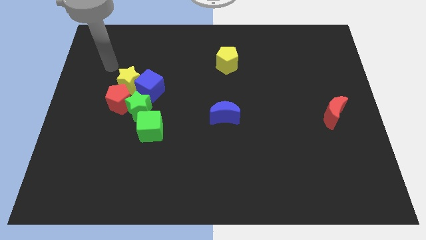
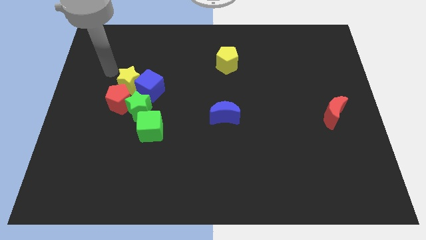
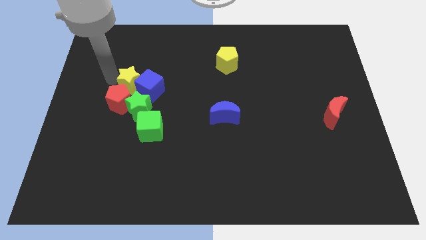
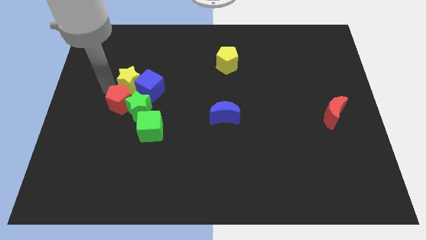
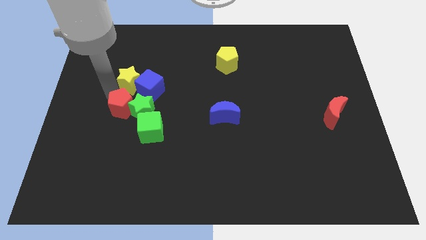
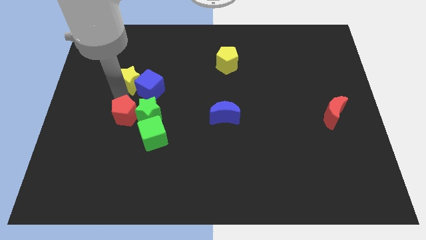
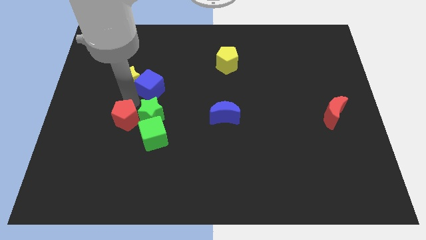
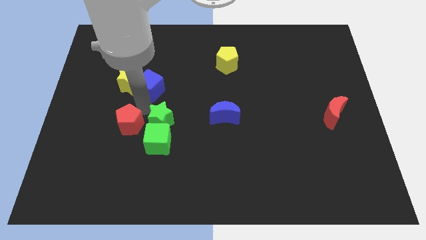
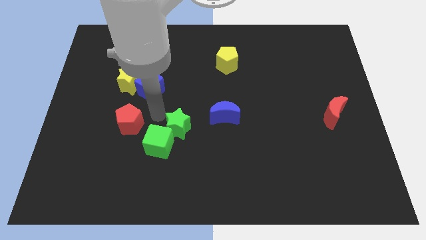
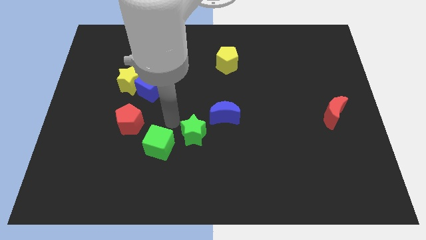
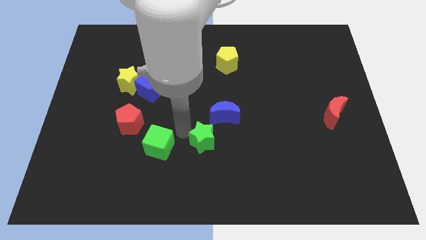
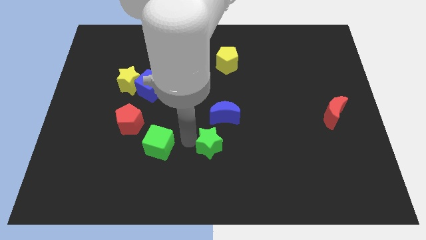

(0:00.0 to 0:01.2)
separate the green cube from the green star

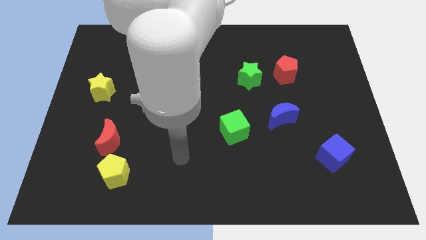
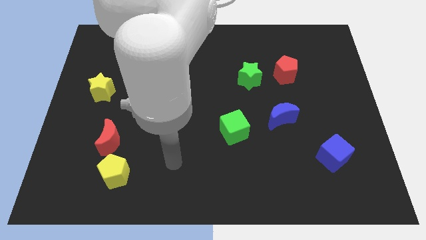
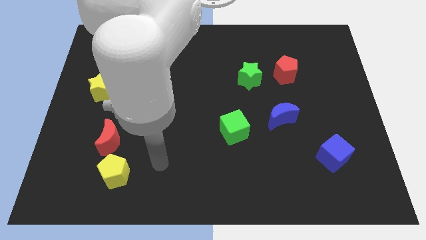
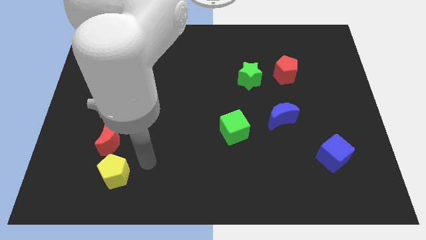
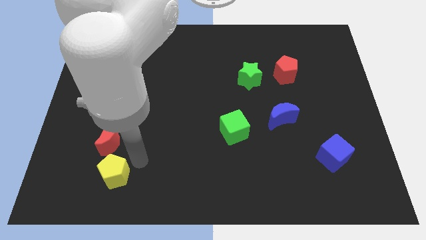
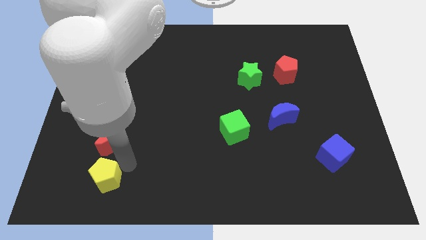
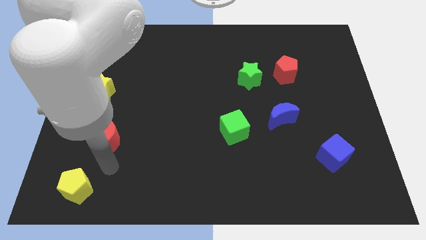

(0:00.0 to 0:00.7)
pull the red moon apart from the yellow pentagon

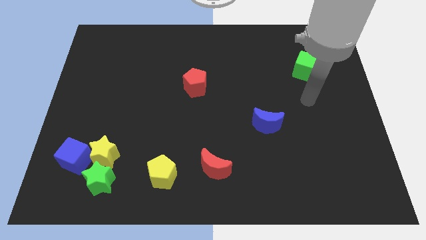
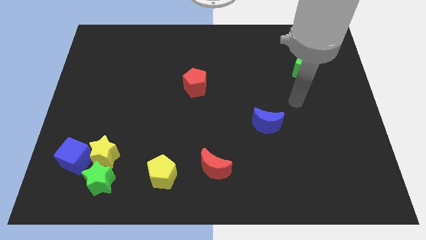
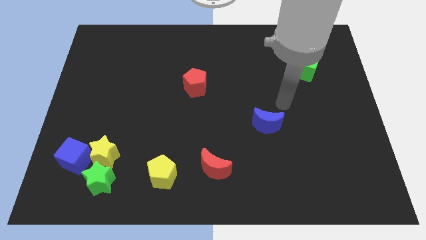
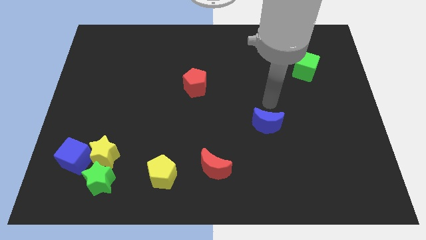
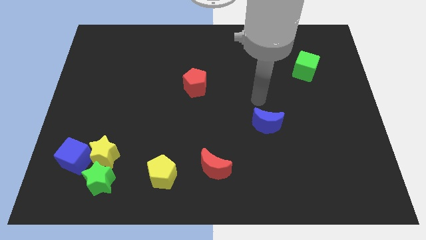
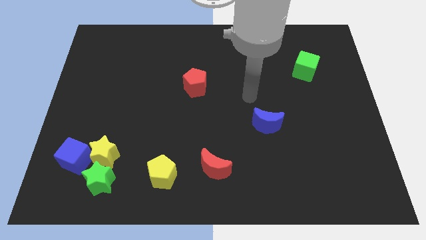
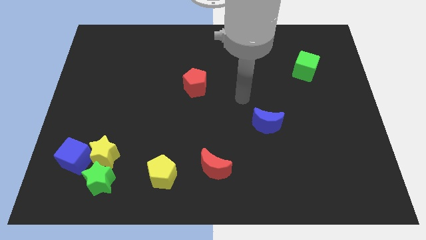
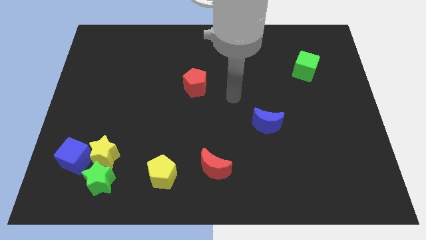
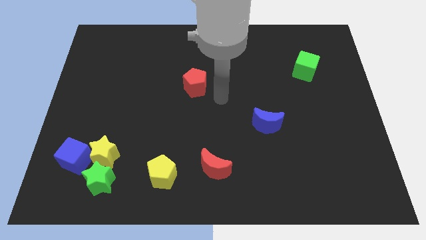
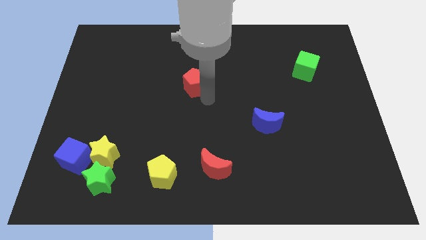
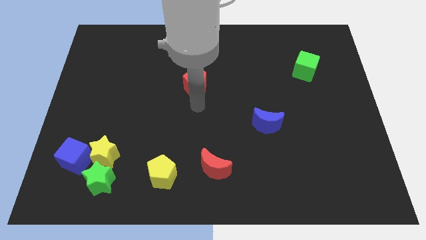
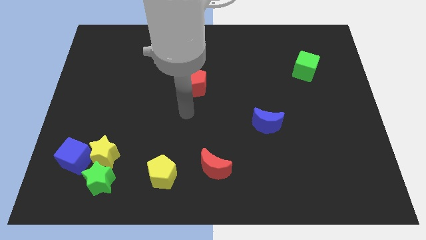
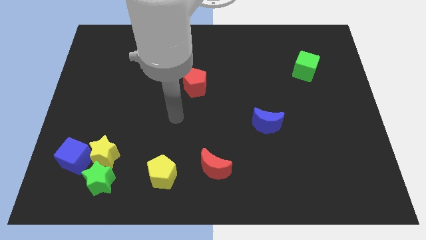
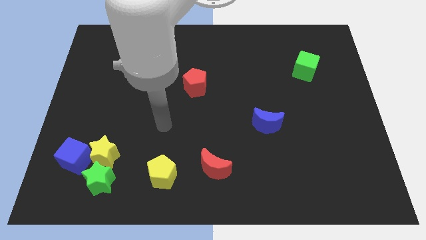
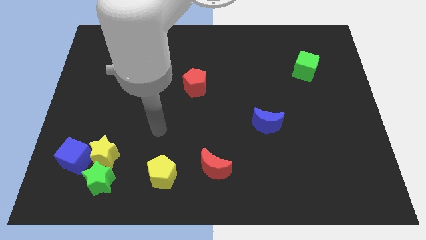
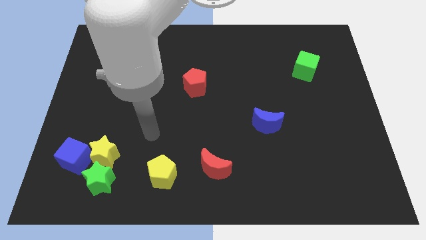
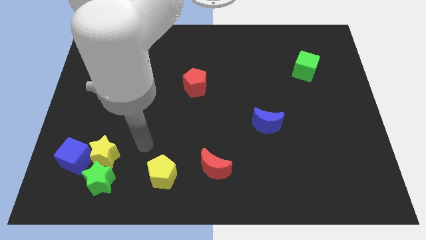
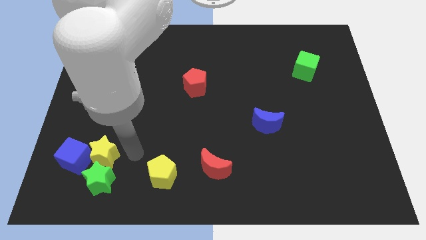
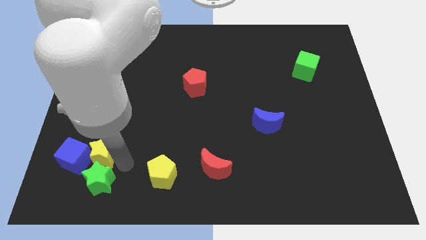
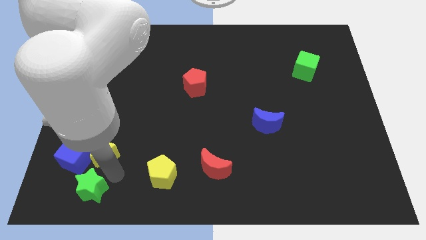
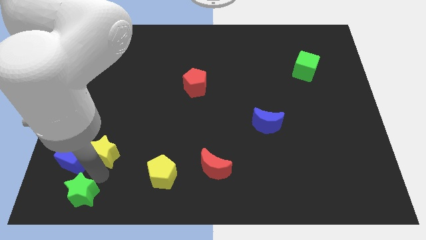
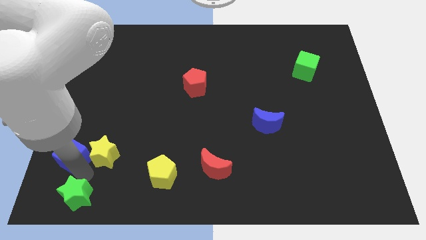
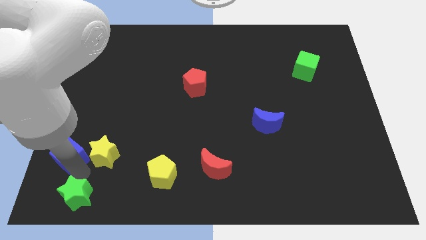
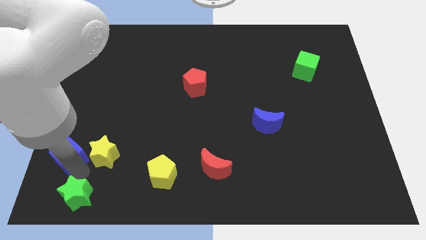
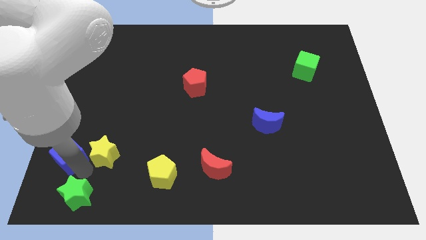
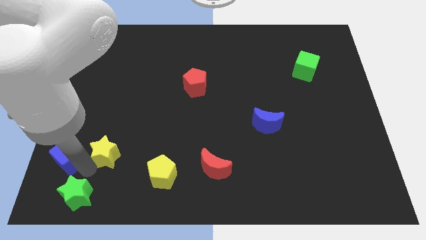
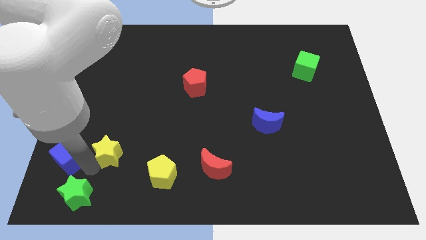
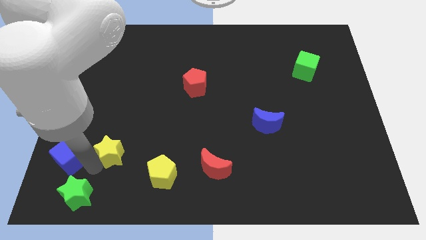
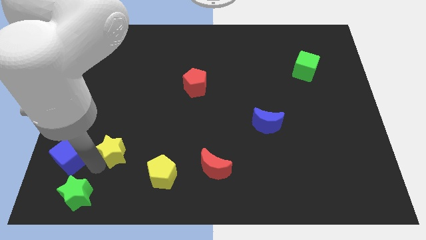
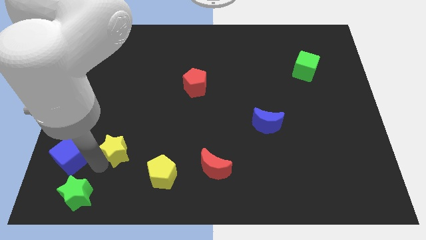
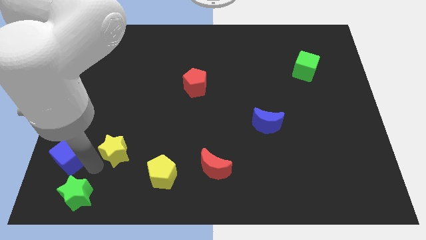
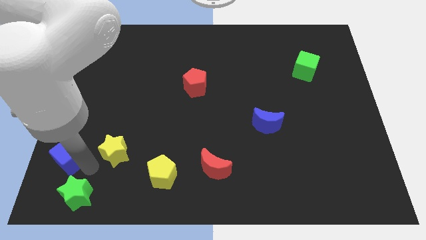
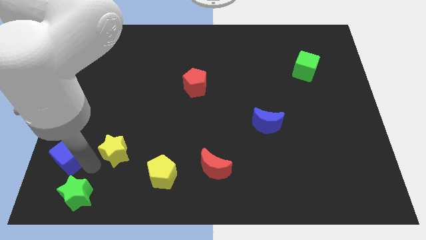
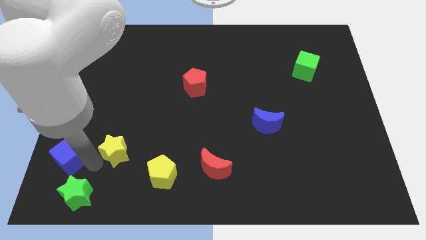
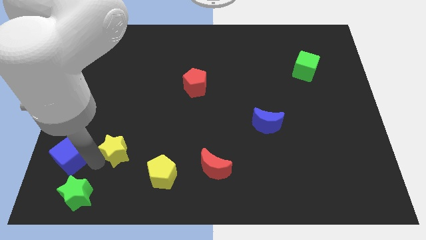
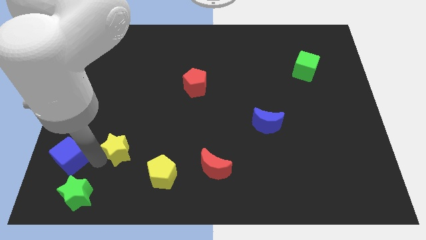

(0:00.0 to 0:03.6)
move the yellow star away from the green star and blue cube

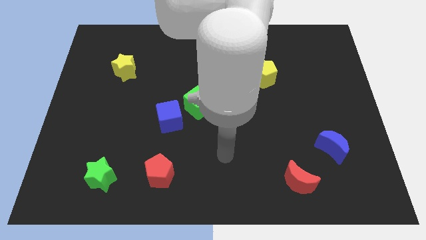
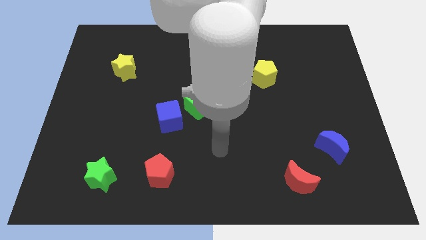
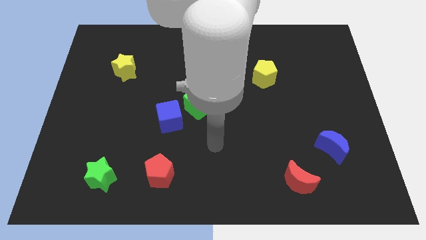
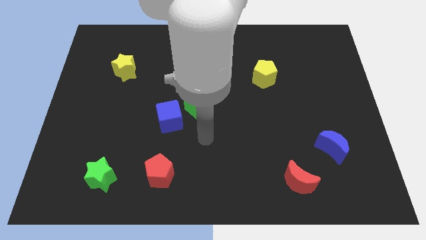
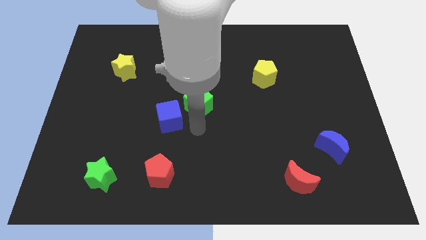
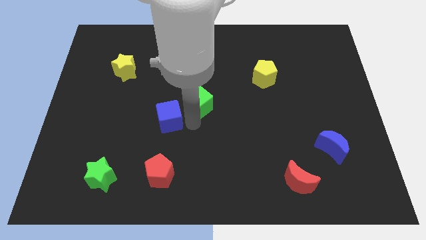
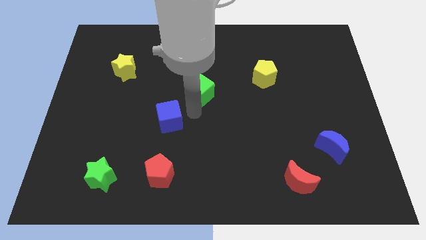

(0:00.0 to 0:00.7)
move the blue cube away from the green cube

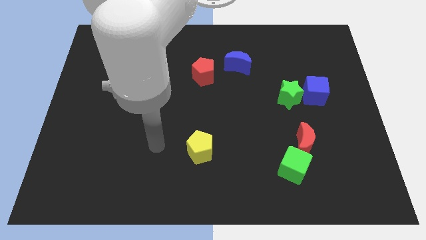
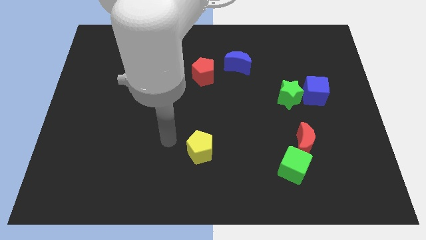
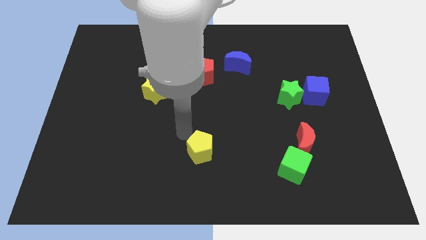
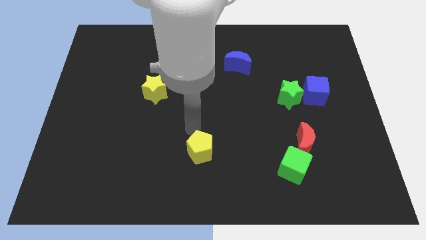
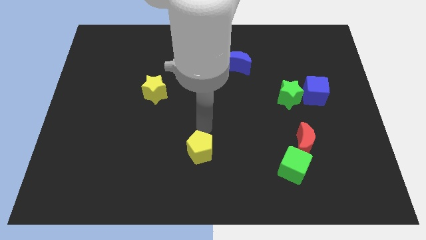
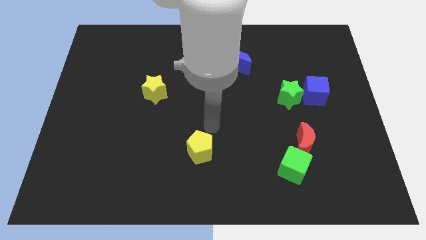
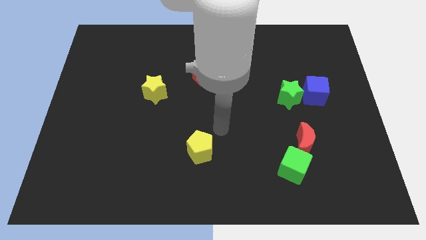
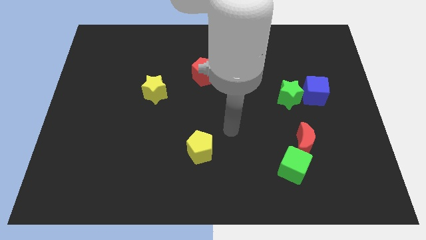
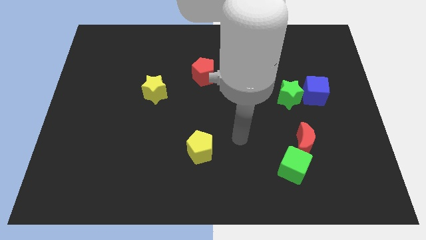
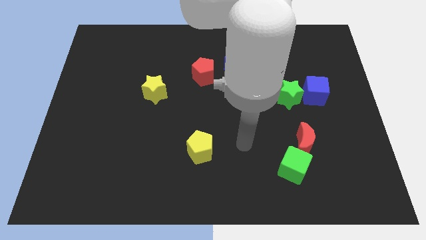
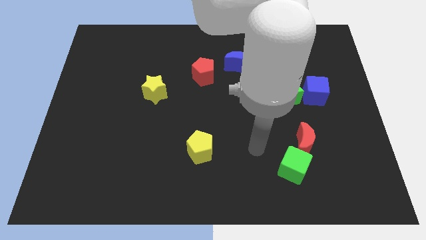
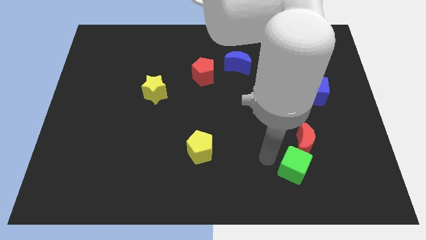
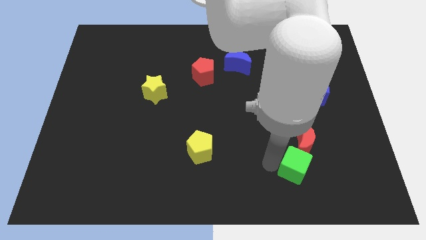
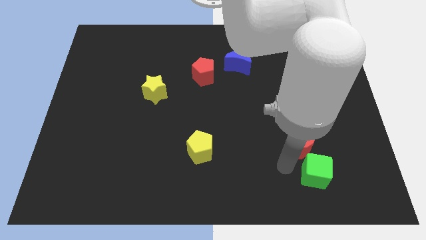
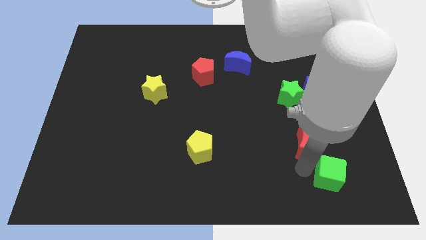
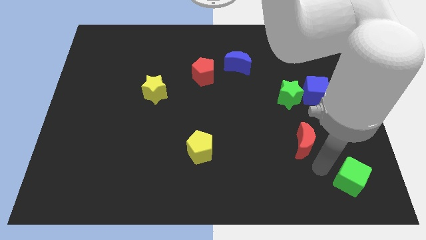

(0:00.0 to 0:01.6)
separate the red moon from the green cube

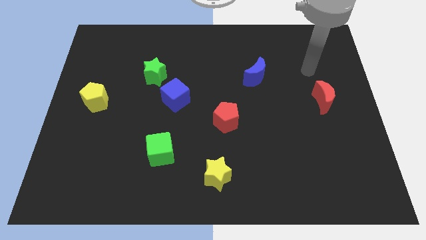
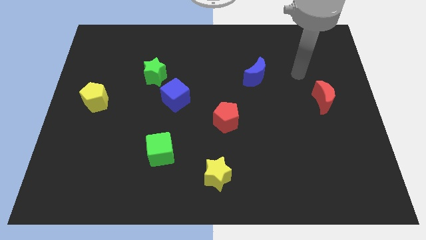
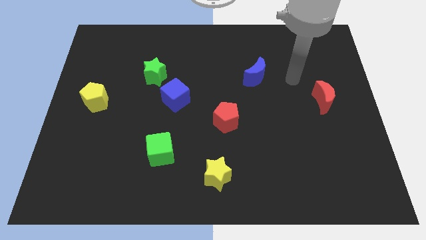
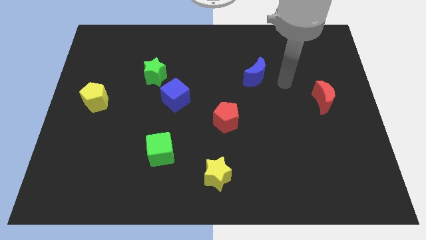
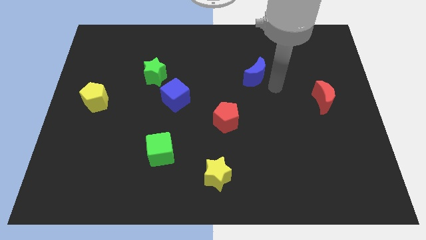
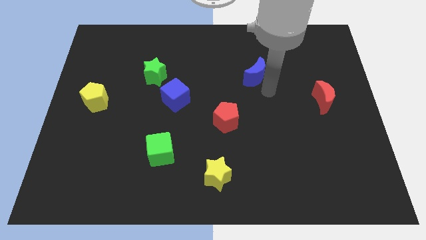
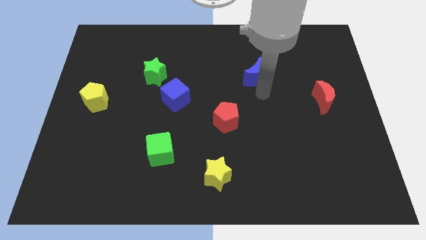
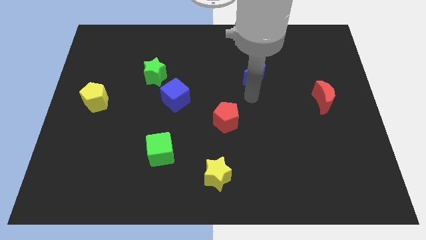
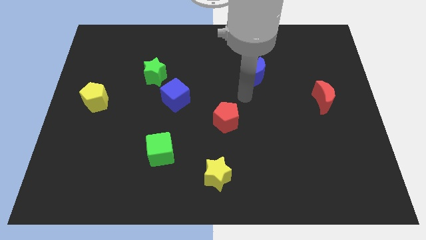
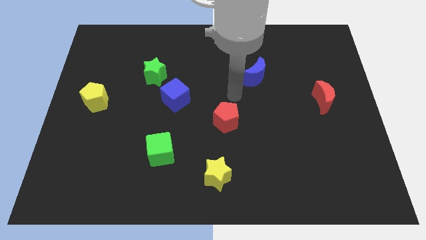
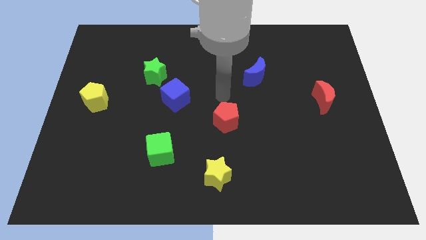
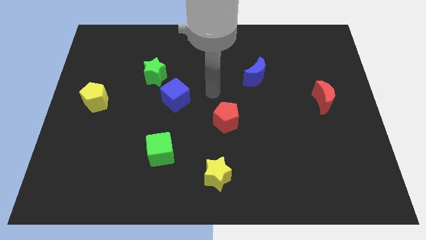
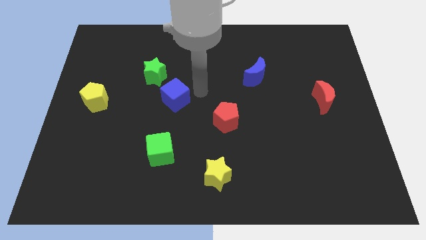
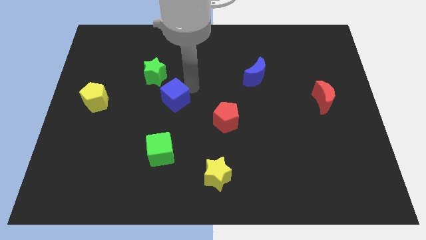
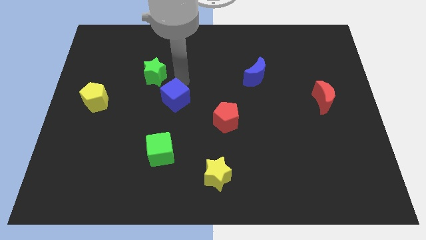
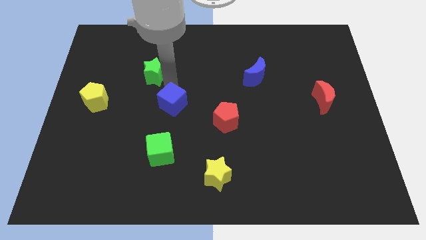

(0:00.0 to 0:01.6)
separate the blue cube from the green star
